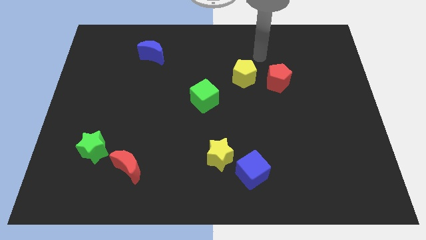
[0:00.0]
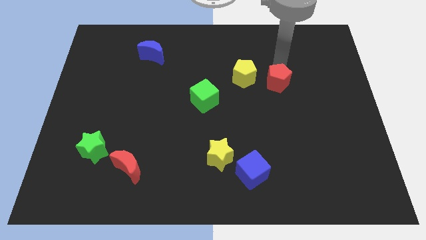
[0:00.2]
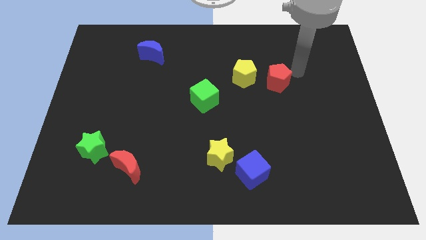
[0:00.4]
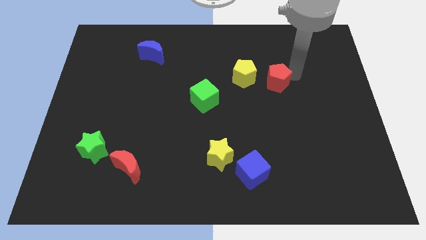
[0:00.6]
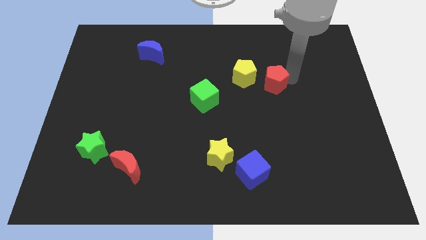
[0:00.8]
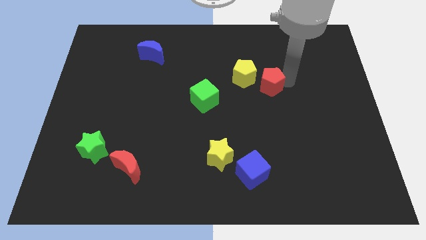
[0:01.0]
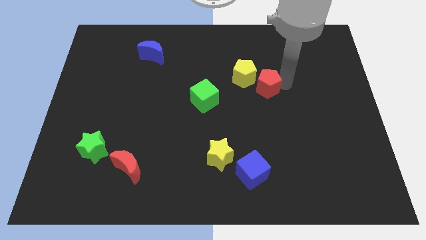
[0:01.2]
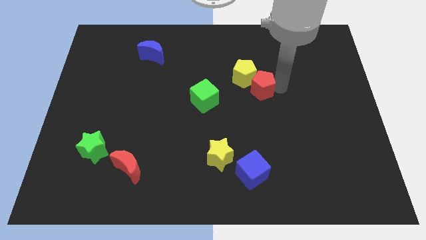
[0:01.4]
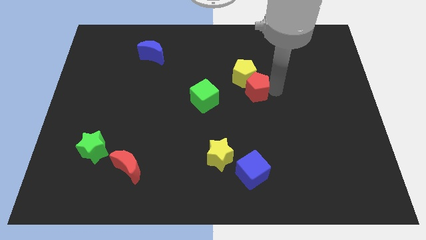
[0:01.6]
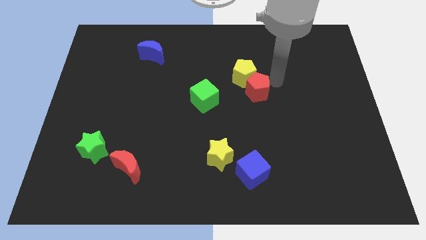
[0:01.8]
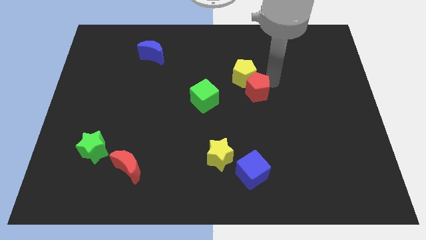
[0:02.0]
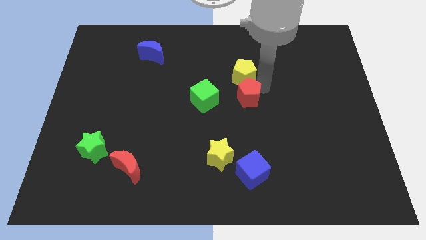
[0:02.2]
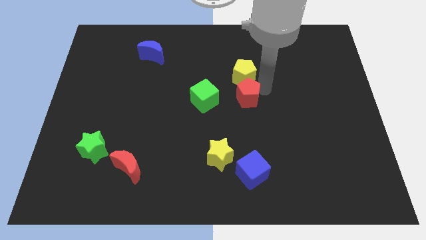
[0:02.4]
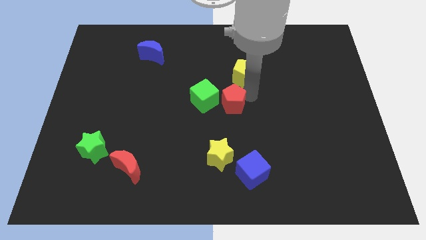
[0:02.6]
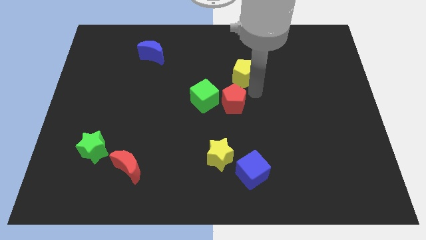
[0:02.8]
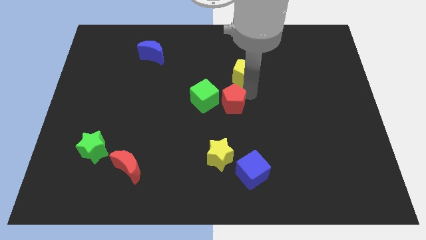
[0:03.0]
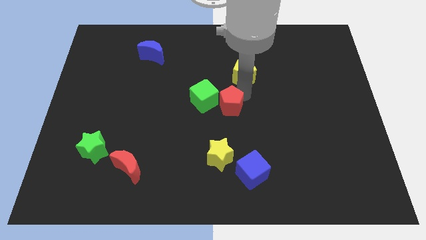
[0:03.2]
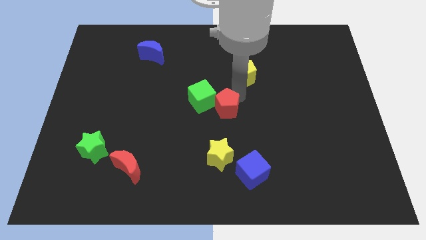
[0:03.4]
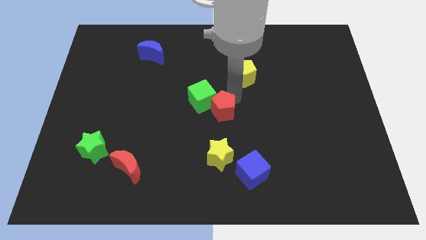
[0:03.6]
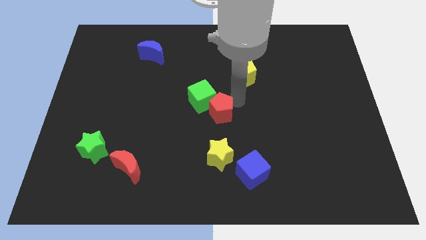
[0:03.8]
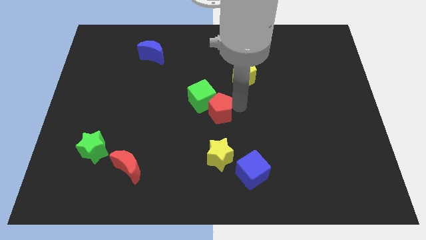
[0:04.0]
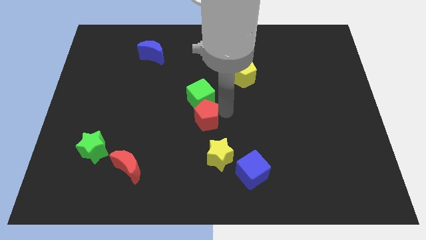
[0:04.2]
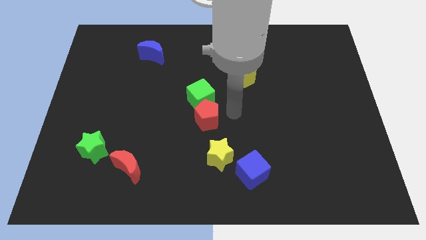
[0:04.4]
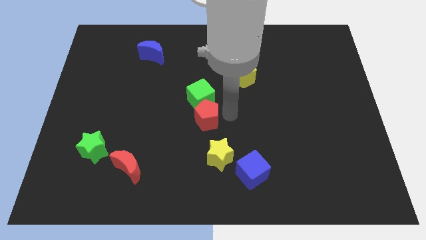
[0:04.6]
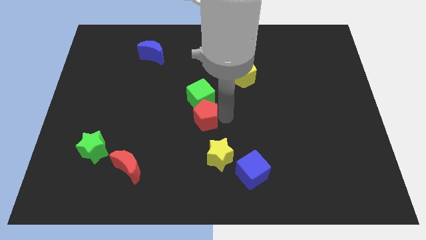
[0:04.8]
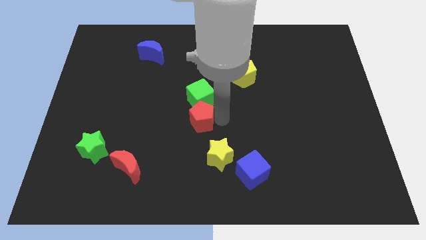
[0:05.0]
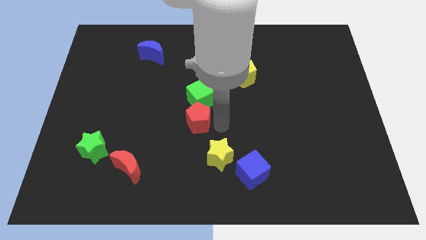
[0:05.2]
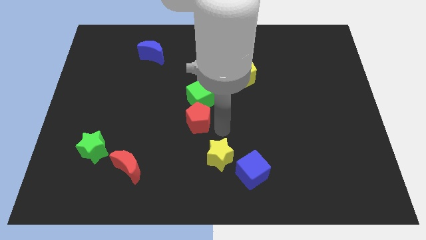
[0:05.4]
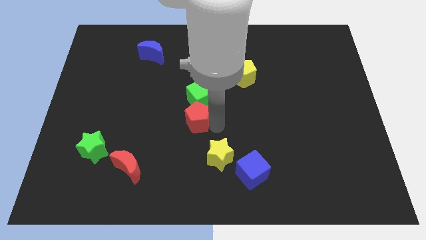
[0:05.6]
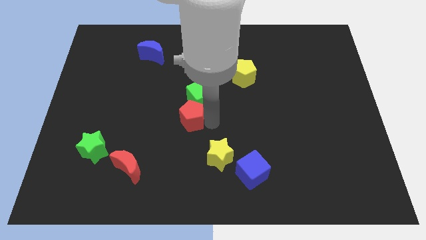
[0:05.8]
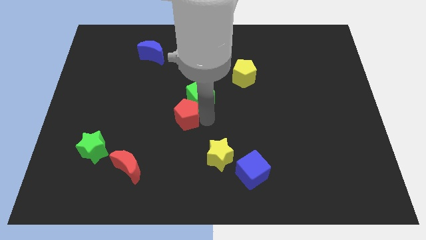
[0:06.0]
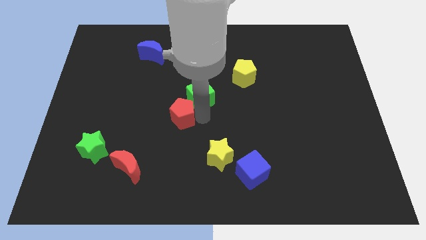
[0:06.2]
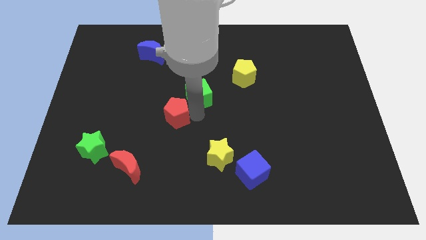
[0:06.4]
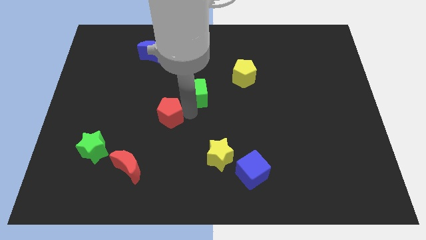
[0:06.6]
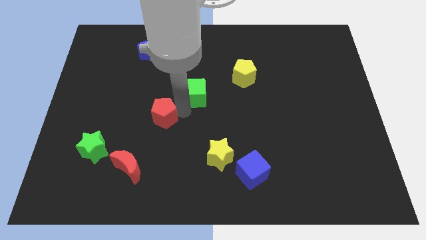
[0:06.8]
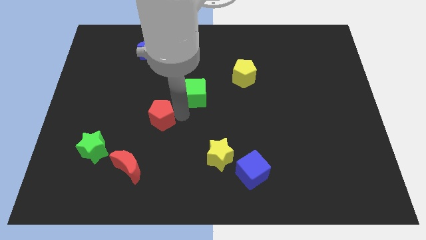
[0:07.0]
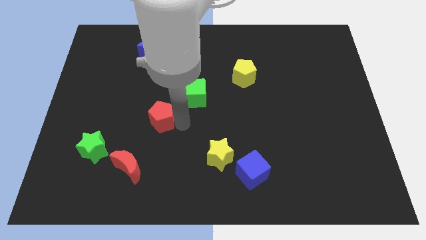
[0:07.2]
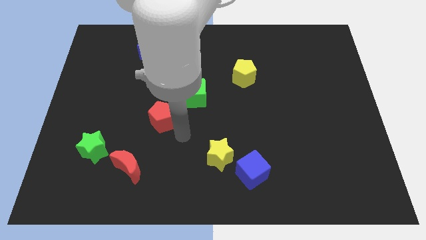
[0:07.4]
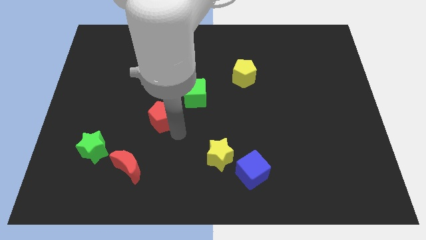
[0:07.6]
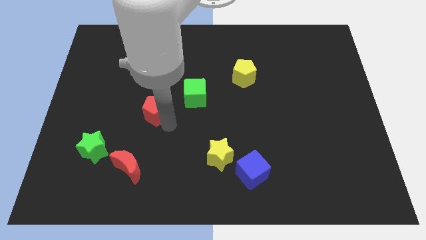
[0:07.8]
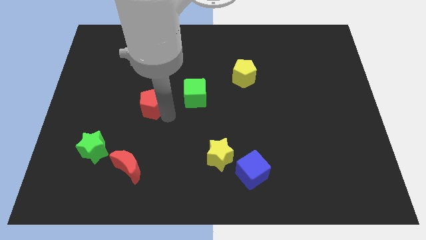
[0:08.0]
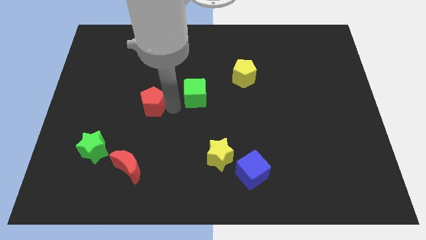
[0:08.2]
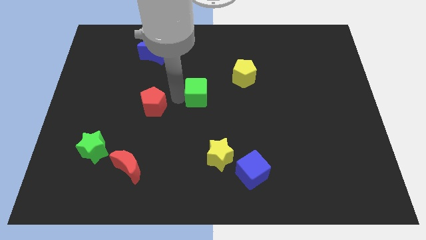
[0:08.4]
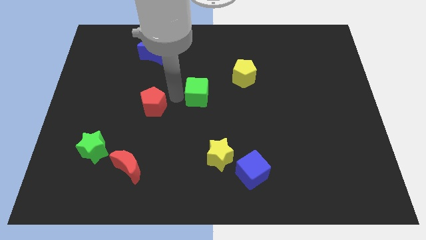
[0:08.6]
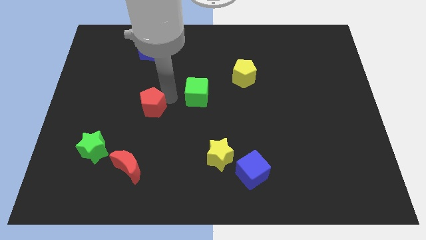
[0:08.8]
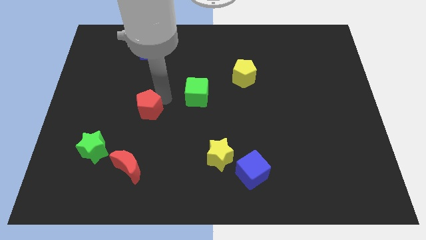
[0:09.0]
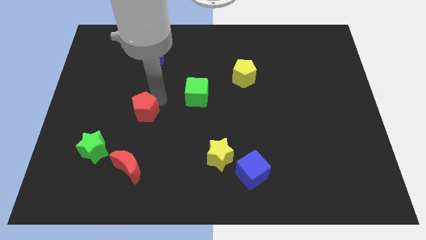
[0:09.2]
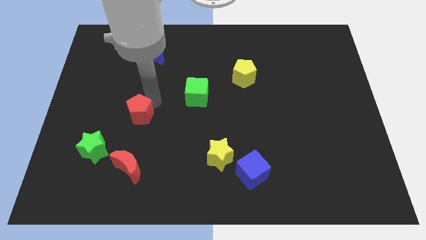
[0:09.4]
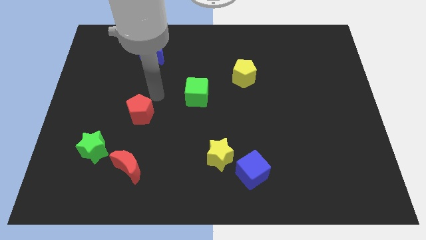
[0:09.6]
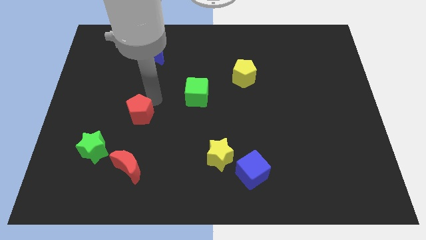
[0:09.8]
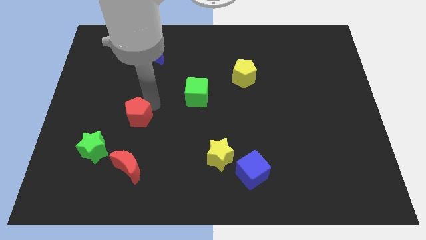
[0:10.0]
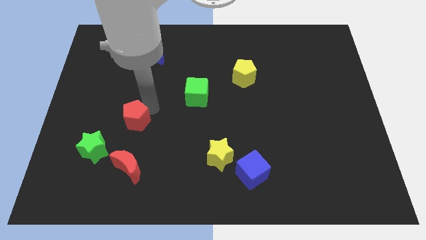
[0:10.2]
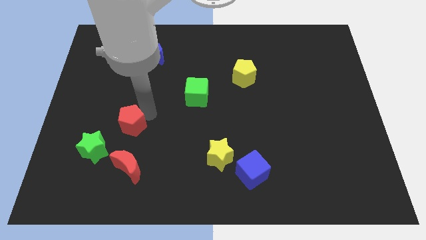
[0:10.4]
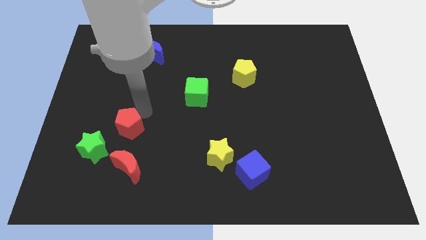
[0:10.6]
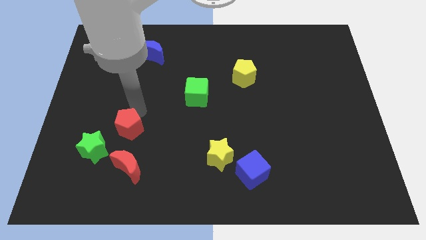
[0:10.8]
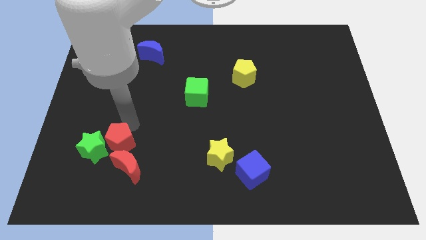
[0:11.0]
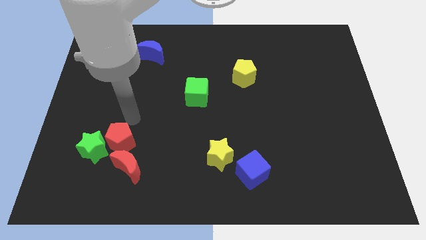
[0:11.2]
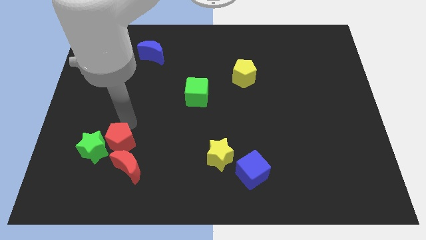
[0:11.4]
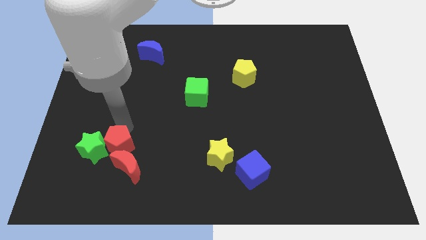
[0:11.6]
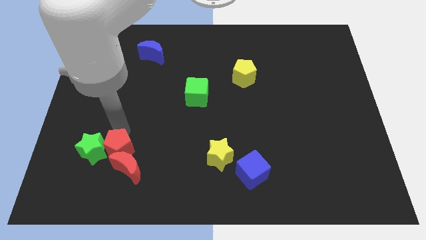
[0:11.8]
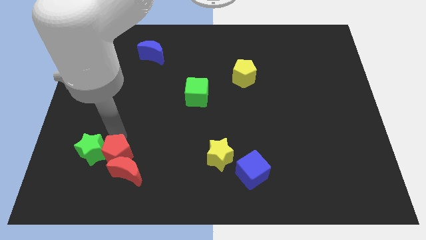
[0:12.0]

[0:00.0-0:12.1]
put the red pentagon just left of the red moon

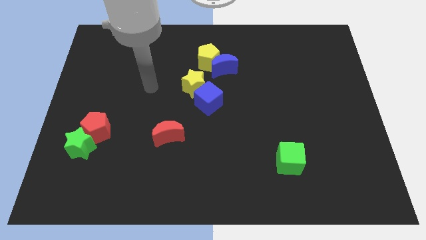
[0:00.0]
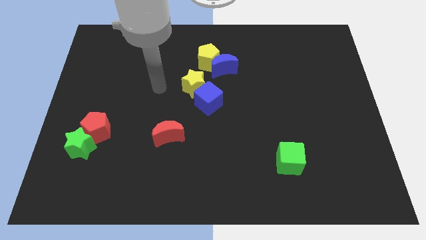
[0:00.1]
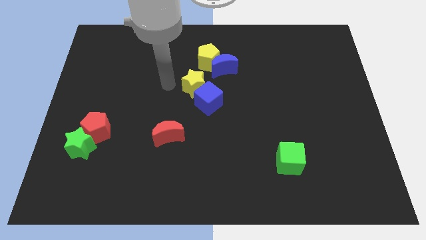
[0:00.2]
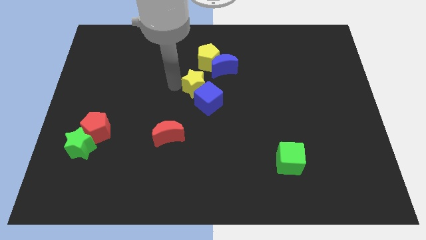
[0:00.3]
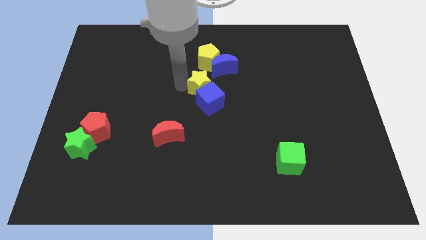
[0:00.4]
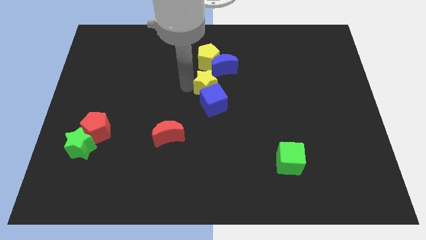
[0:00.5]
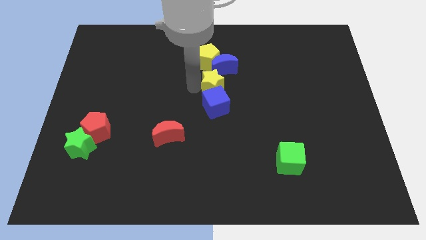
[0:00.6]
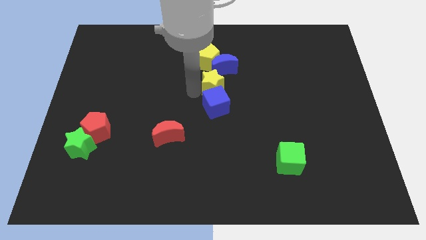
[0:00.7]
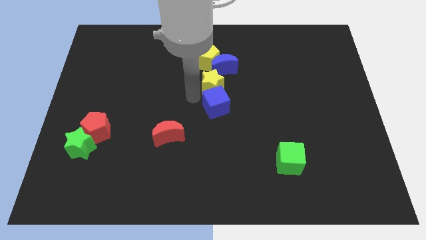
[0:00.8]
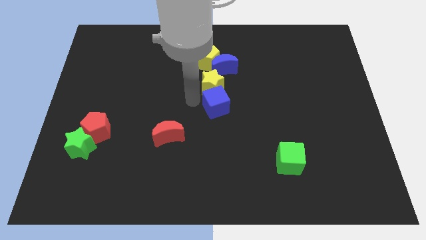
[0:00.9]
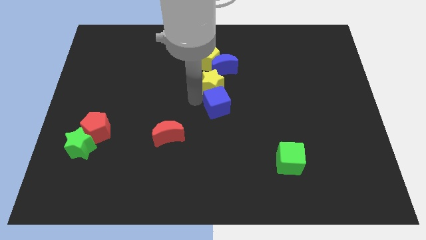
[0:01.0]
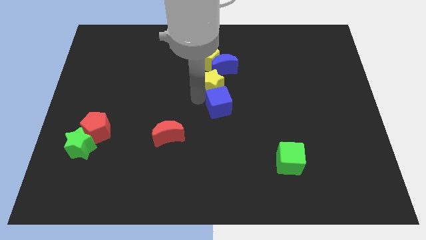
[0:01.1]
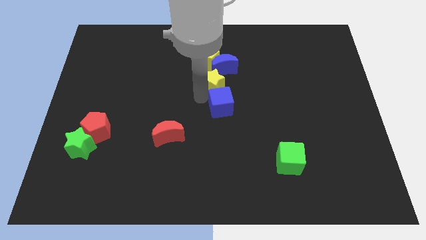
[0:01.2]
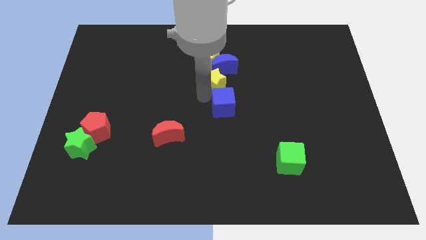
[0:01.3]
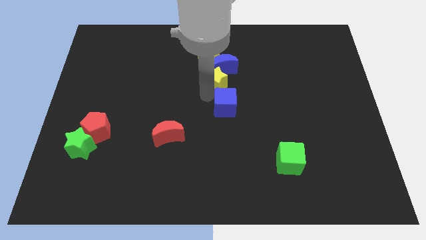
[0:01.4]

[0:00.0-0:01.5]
push the yellow star to the bottom right side of the yellow pentagon

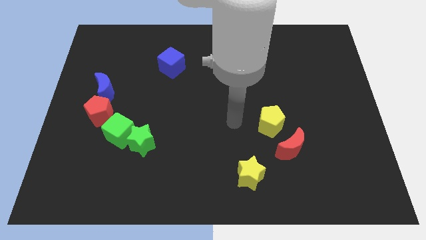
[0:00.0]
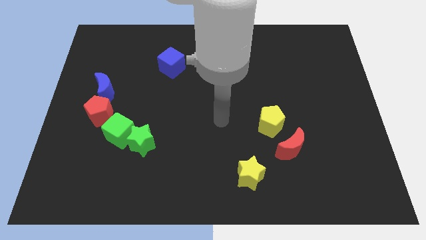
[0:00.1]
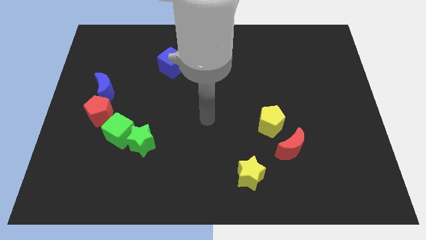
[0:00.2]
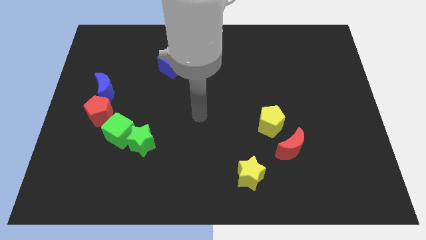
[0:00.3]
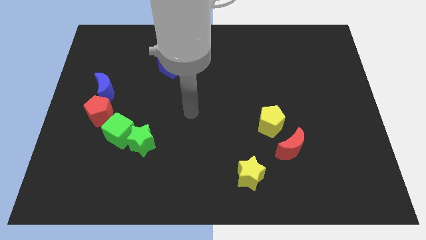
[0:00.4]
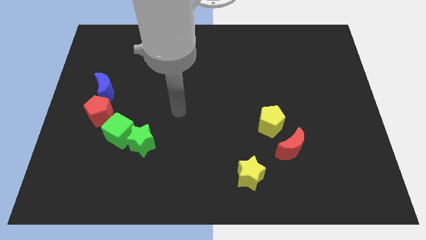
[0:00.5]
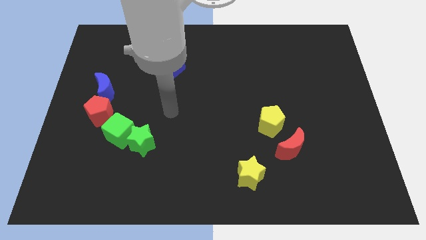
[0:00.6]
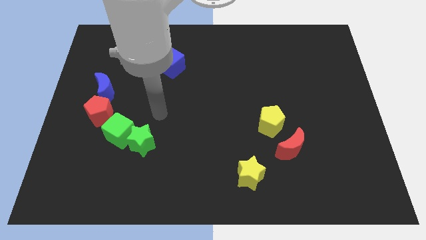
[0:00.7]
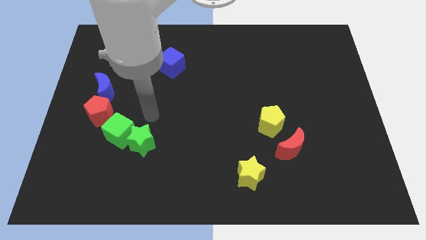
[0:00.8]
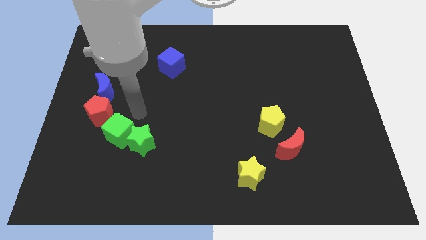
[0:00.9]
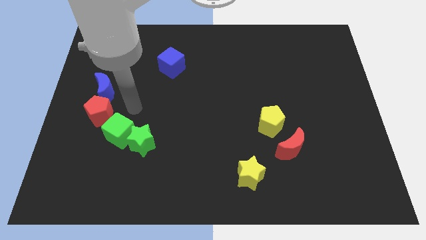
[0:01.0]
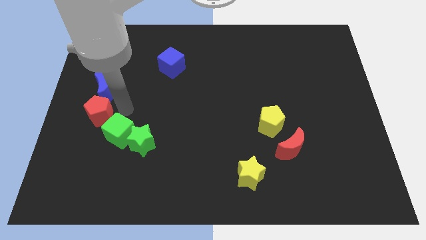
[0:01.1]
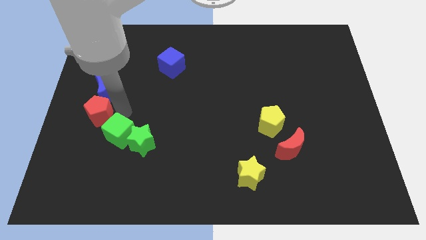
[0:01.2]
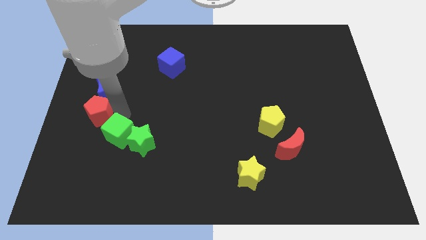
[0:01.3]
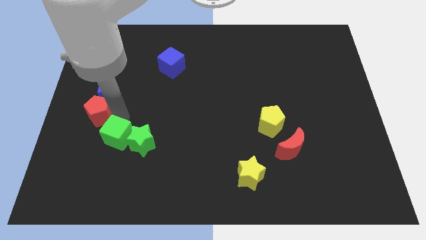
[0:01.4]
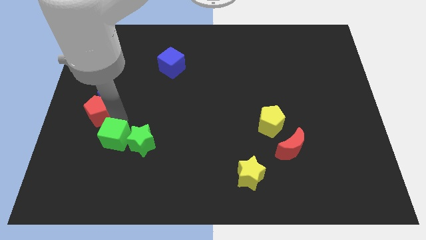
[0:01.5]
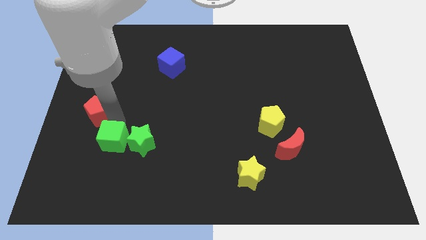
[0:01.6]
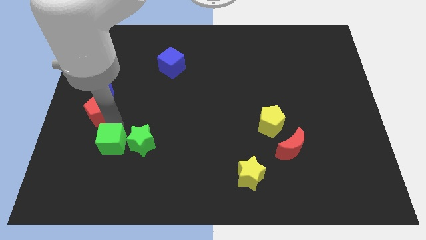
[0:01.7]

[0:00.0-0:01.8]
put the green cube to the bottom left of the green star
